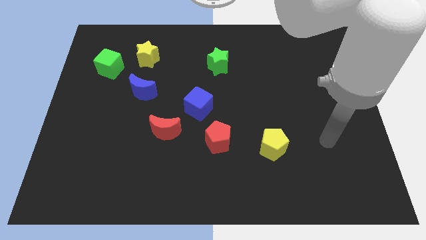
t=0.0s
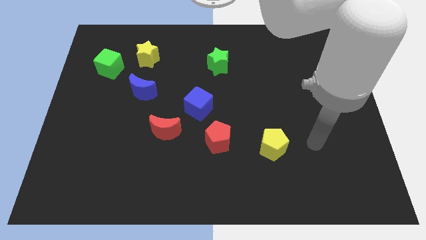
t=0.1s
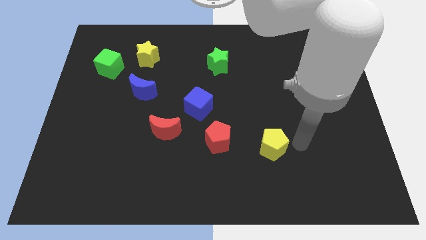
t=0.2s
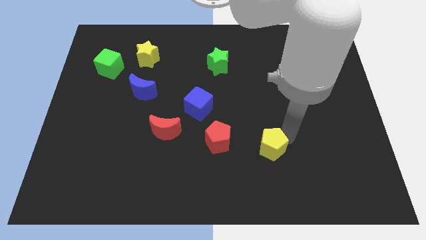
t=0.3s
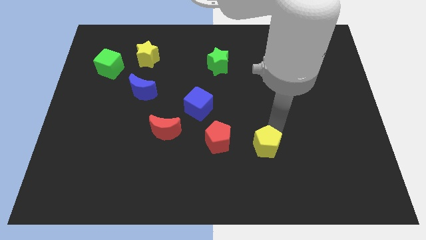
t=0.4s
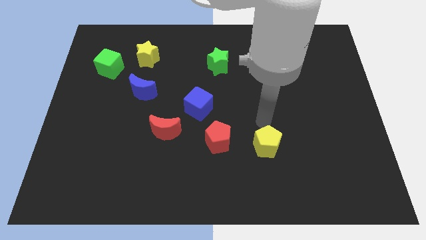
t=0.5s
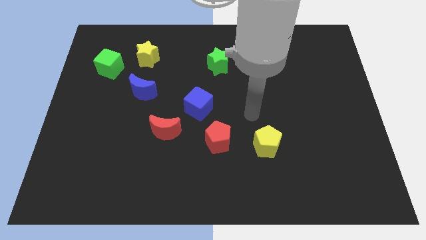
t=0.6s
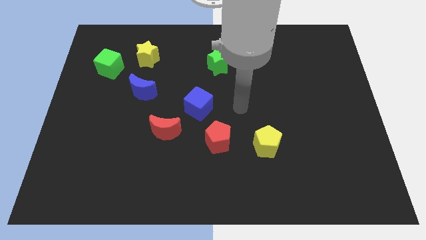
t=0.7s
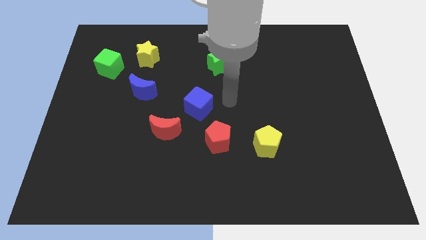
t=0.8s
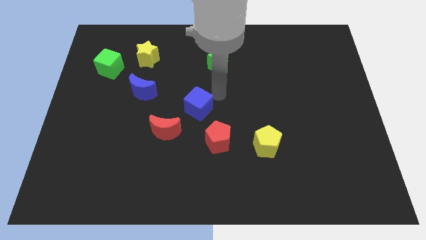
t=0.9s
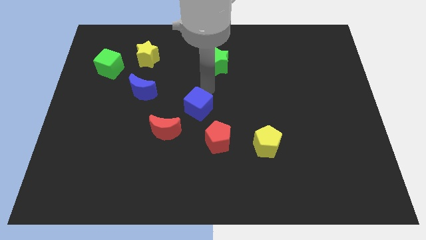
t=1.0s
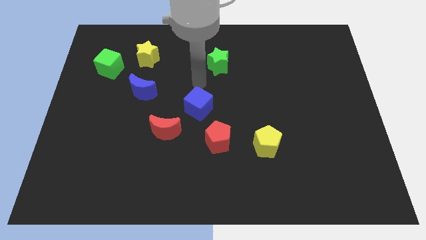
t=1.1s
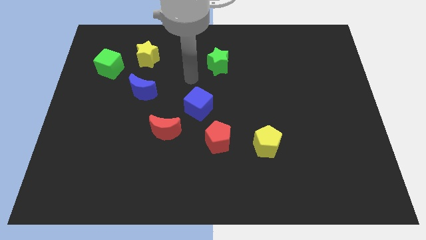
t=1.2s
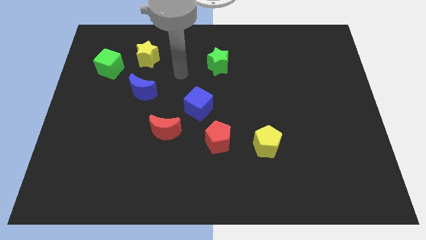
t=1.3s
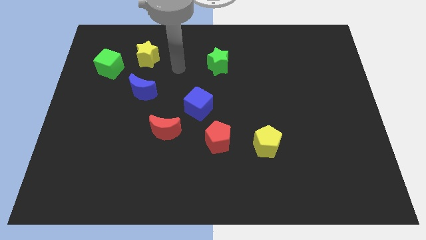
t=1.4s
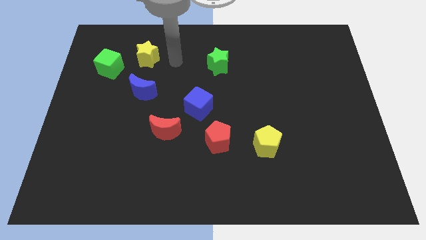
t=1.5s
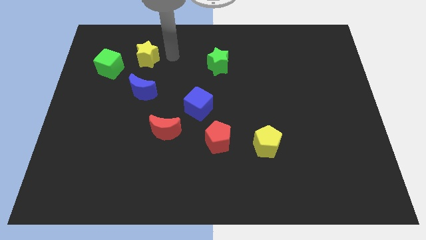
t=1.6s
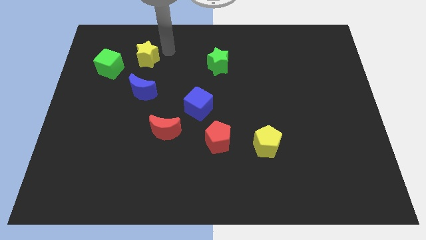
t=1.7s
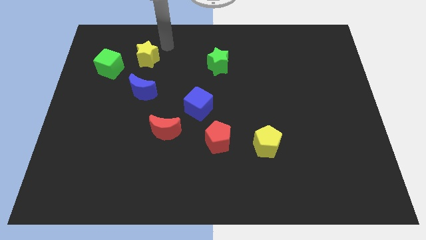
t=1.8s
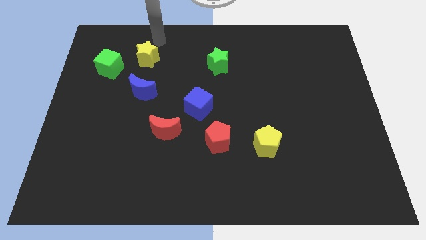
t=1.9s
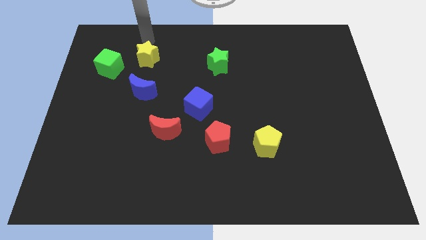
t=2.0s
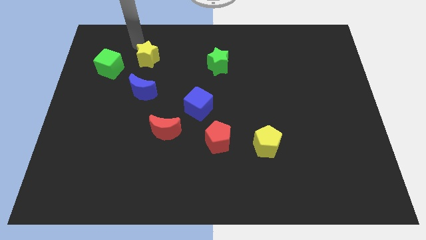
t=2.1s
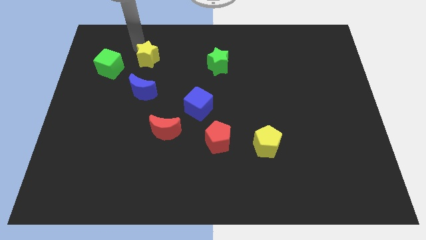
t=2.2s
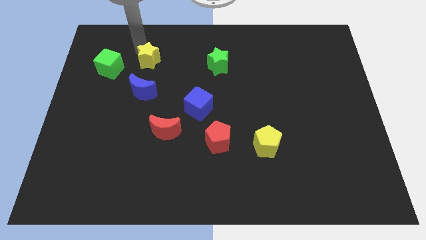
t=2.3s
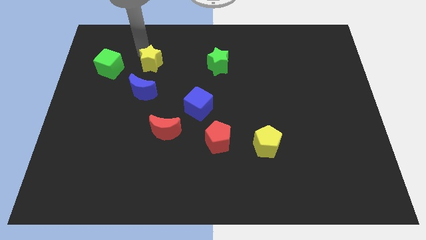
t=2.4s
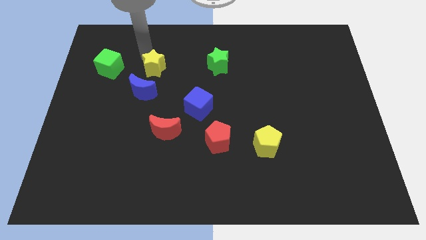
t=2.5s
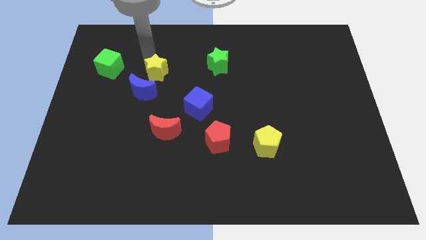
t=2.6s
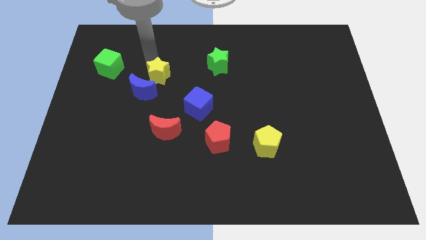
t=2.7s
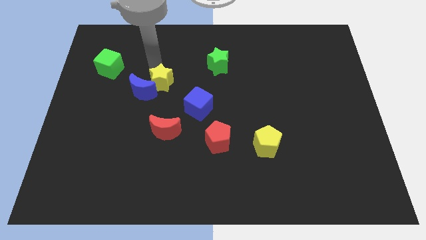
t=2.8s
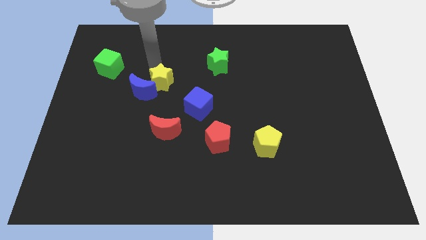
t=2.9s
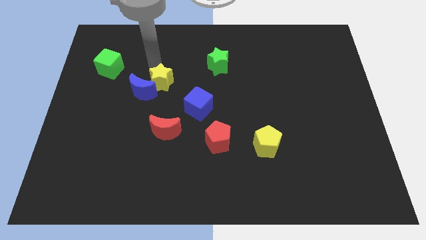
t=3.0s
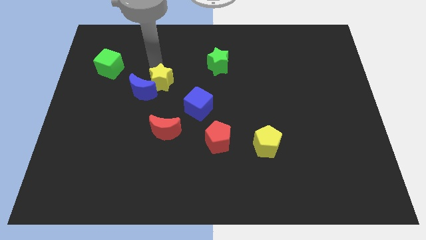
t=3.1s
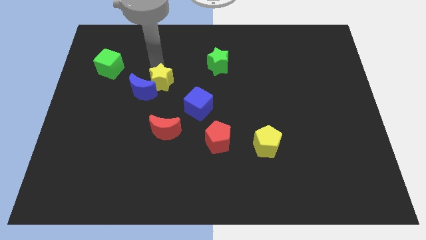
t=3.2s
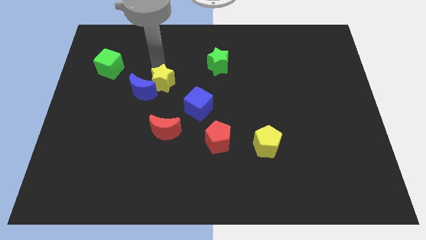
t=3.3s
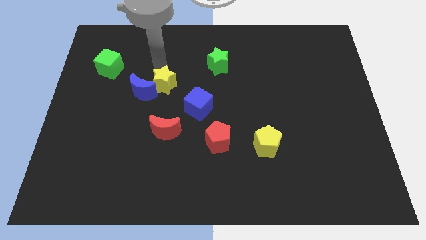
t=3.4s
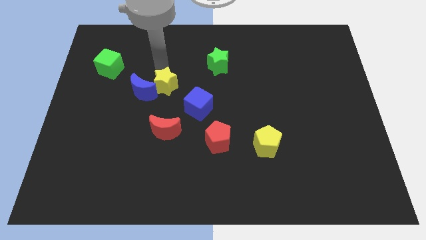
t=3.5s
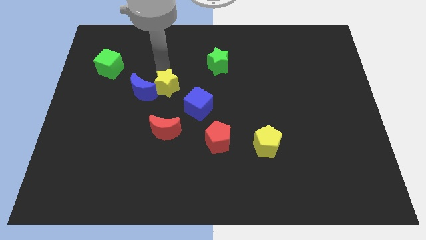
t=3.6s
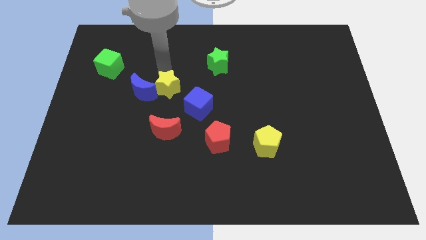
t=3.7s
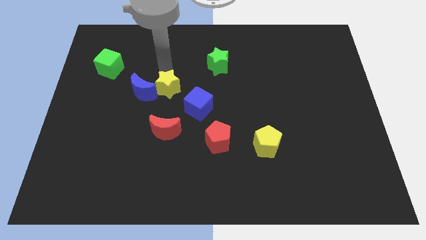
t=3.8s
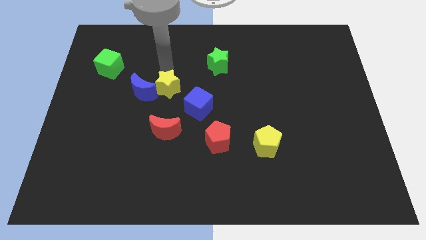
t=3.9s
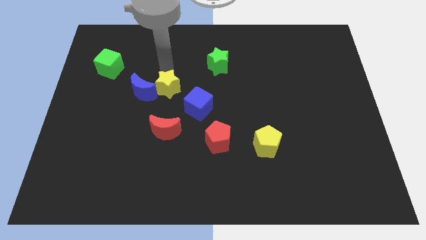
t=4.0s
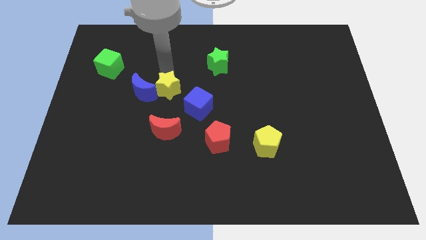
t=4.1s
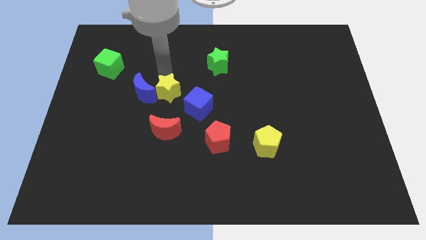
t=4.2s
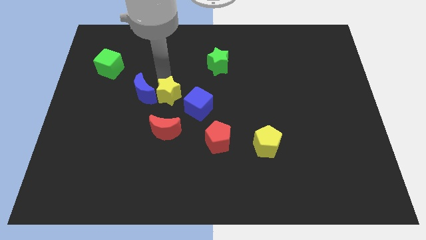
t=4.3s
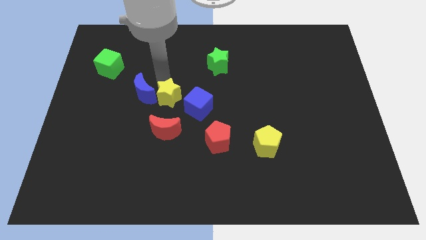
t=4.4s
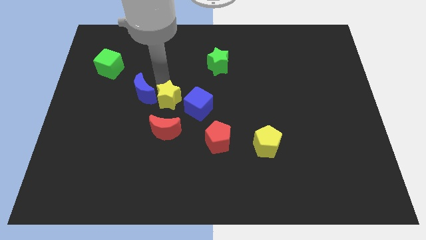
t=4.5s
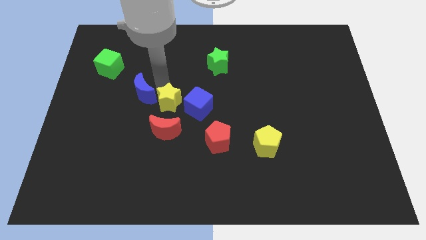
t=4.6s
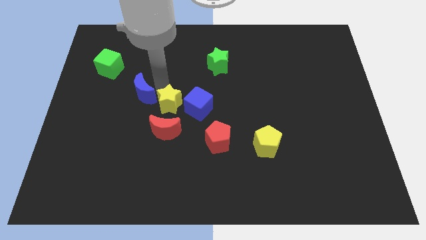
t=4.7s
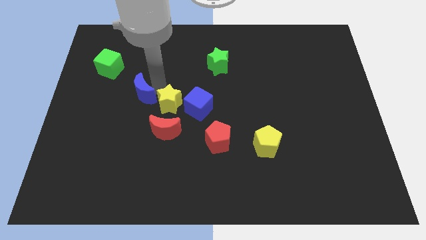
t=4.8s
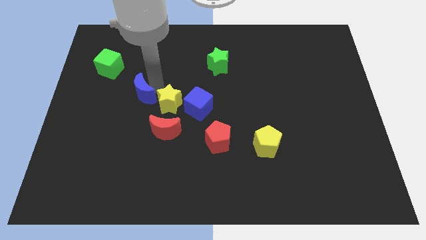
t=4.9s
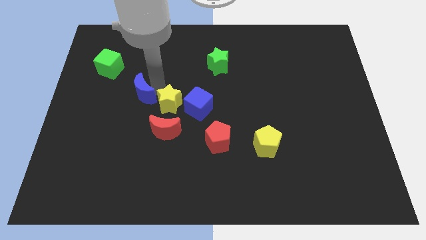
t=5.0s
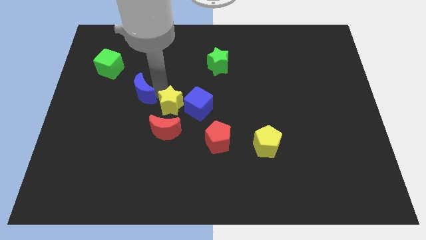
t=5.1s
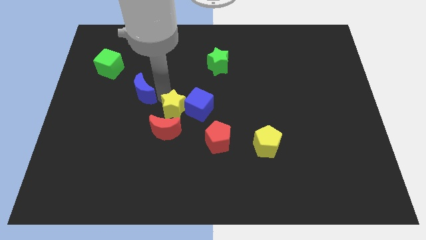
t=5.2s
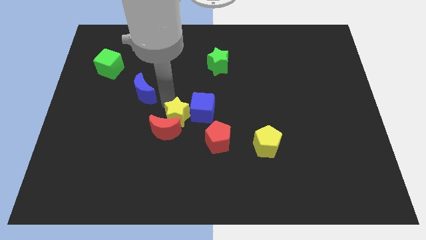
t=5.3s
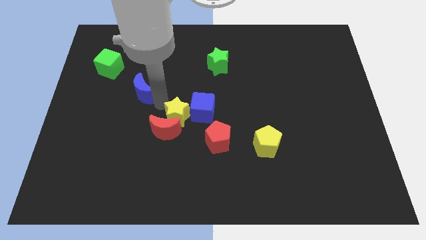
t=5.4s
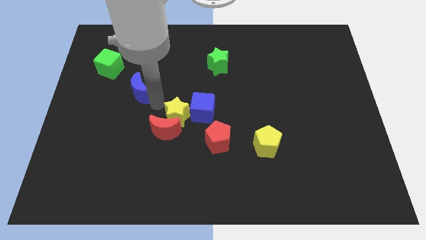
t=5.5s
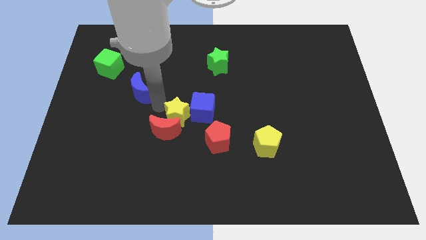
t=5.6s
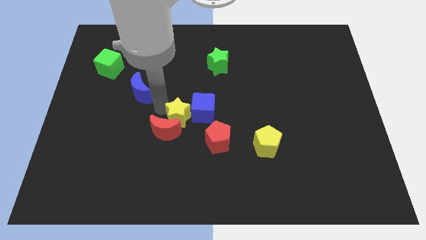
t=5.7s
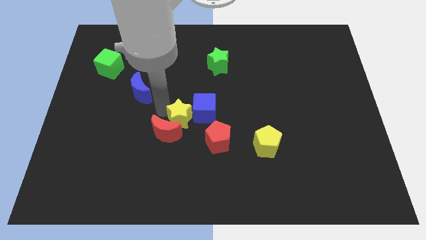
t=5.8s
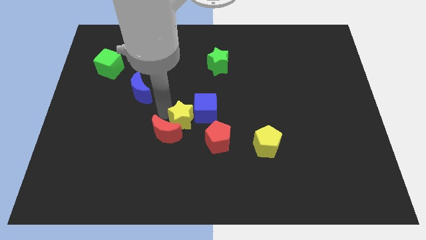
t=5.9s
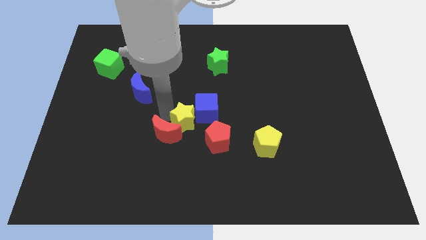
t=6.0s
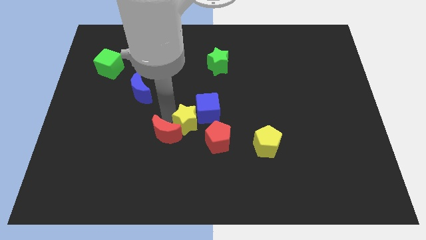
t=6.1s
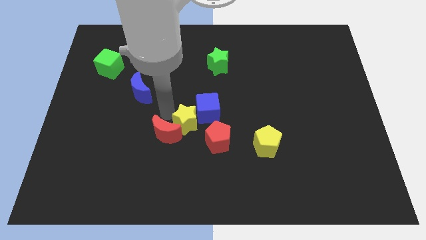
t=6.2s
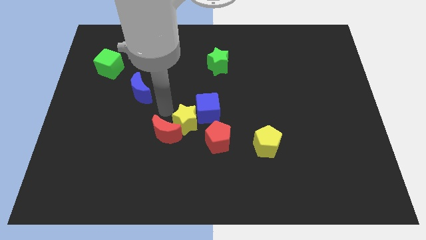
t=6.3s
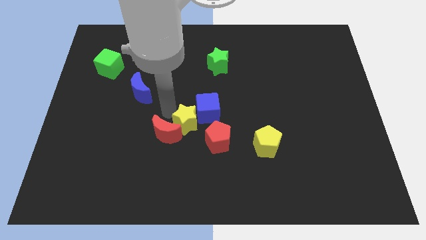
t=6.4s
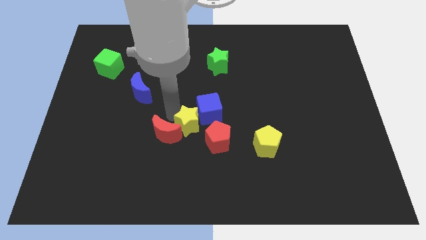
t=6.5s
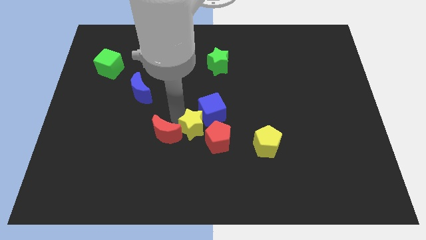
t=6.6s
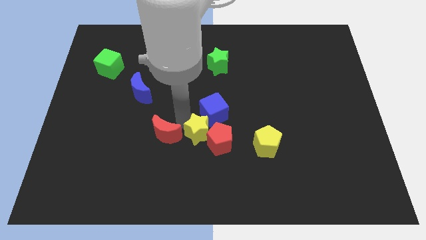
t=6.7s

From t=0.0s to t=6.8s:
slide the yellow star close to the red pentagon
